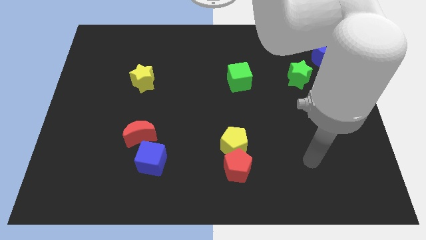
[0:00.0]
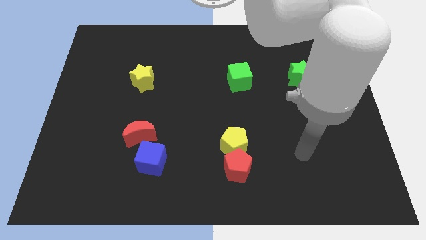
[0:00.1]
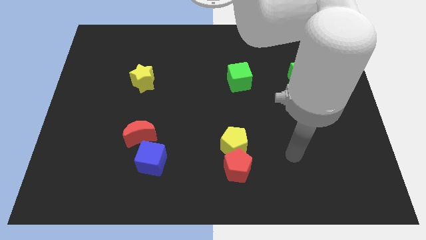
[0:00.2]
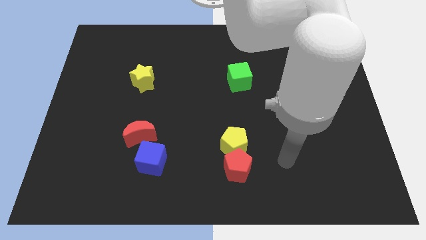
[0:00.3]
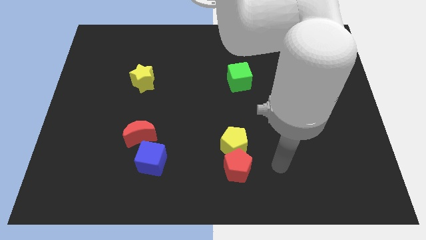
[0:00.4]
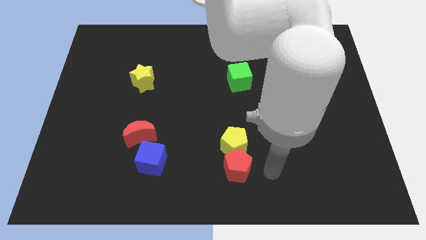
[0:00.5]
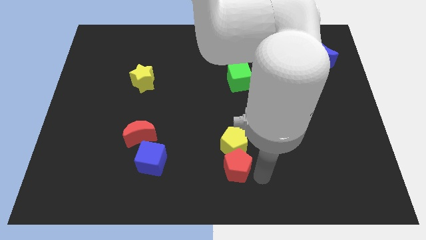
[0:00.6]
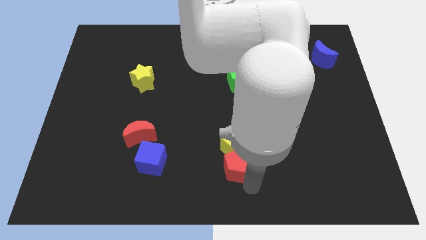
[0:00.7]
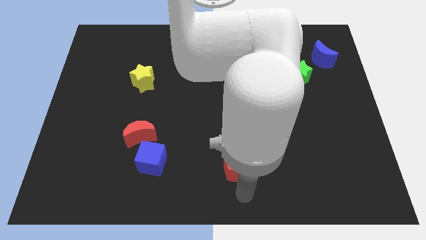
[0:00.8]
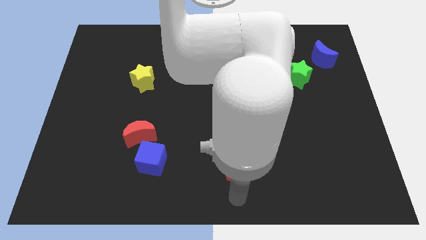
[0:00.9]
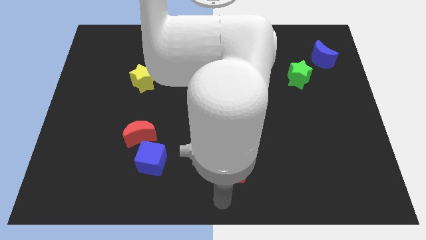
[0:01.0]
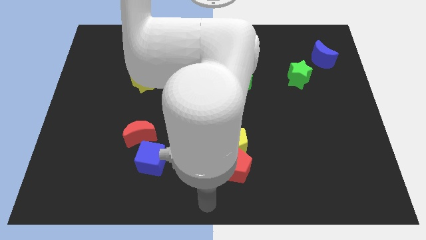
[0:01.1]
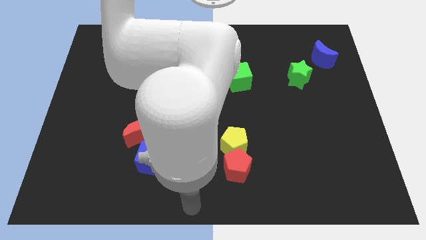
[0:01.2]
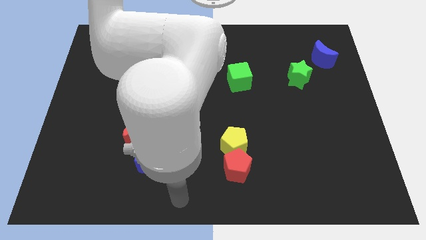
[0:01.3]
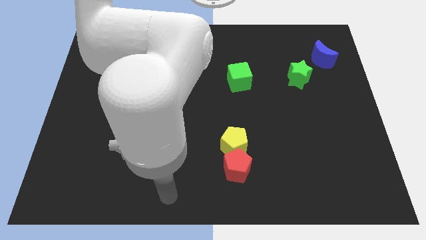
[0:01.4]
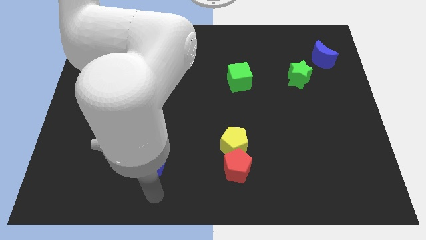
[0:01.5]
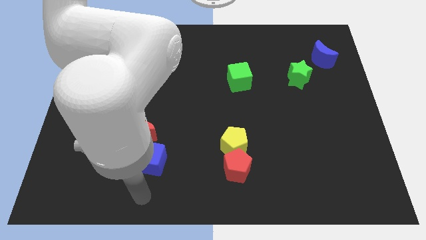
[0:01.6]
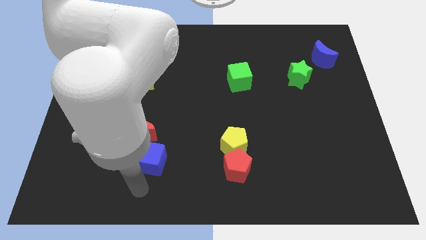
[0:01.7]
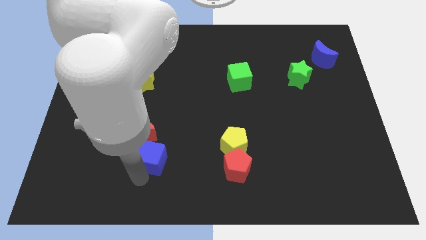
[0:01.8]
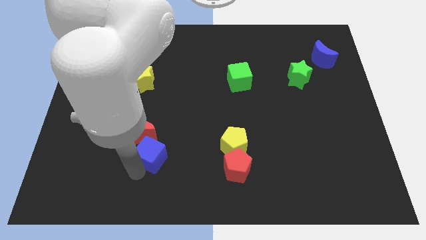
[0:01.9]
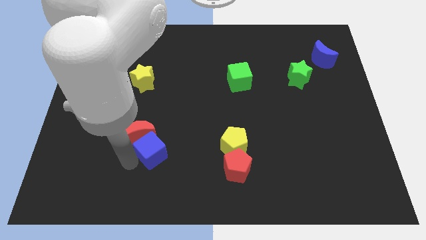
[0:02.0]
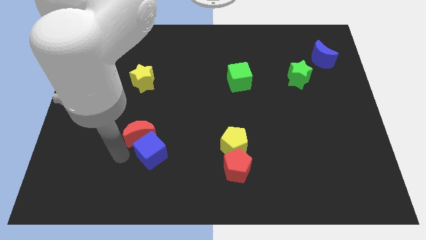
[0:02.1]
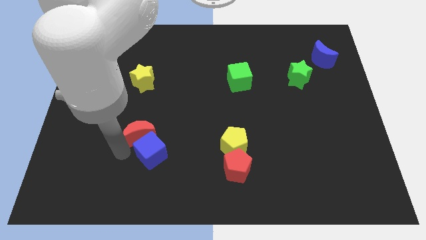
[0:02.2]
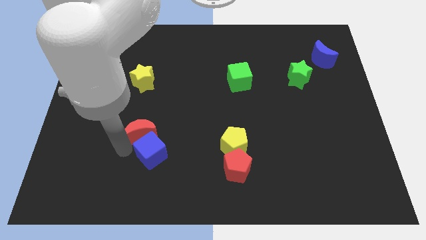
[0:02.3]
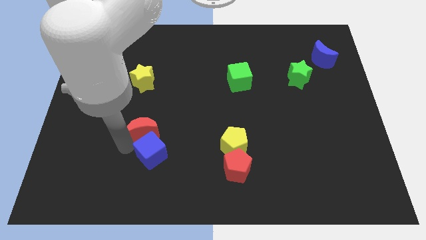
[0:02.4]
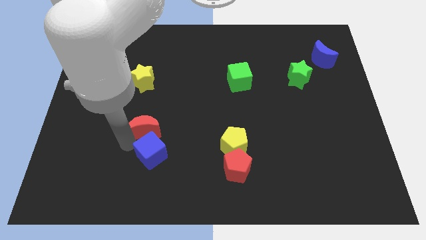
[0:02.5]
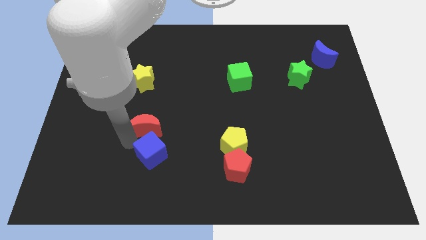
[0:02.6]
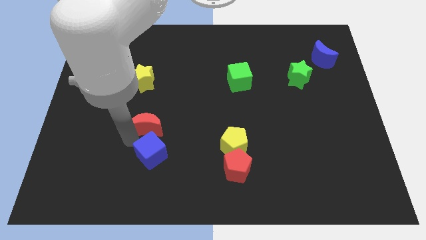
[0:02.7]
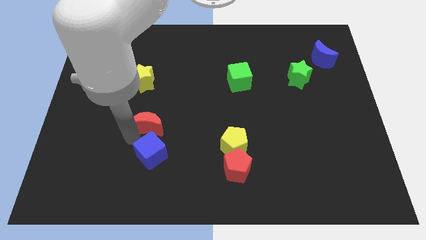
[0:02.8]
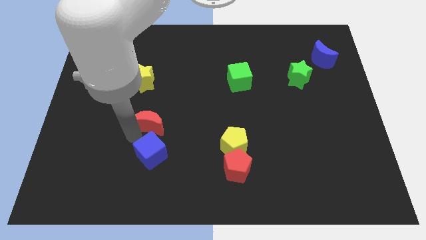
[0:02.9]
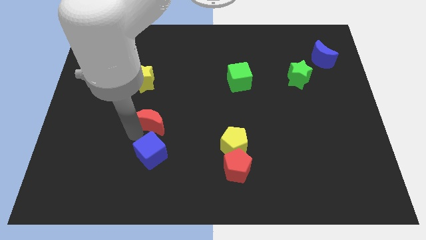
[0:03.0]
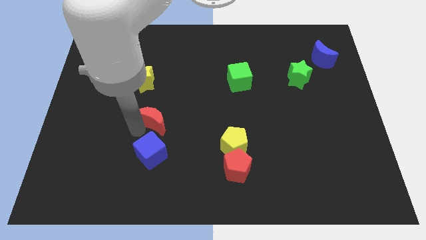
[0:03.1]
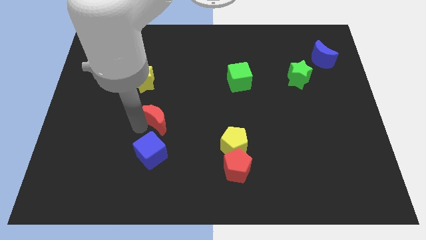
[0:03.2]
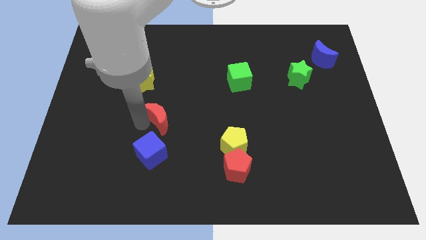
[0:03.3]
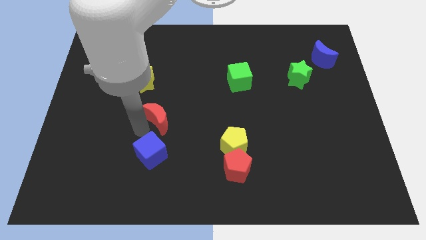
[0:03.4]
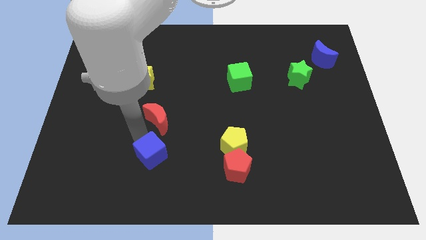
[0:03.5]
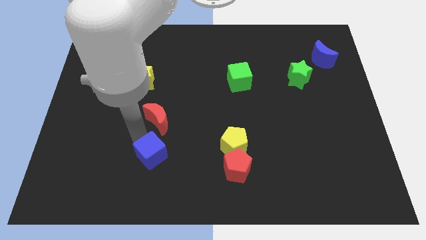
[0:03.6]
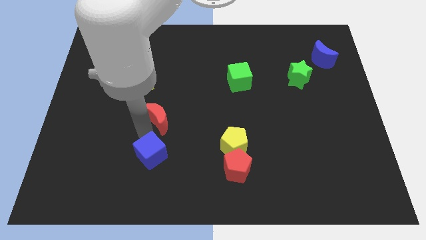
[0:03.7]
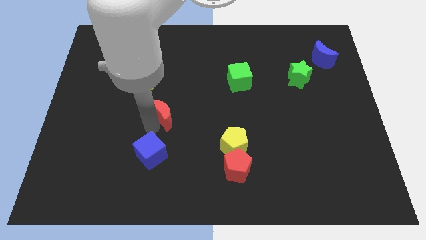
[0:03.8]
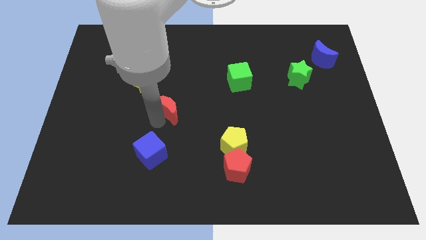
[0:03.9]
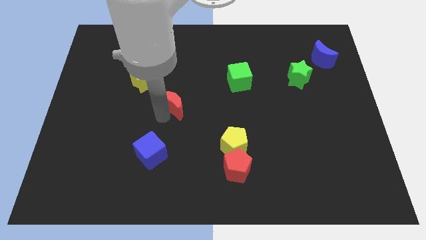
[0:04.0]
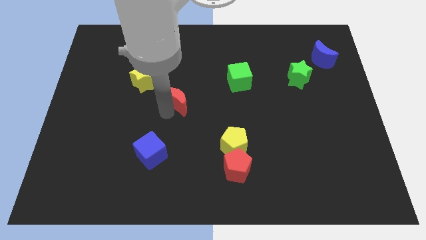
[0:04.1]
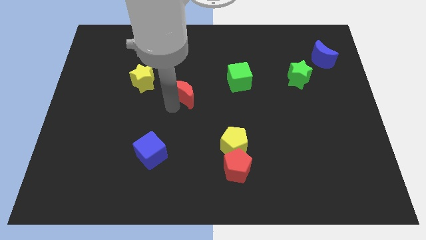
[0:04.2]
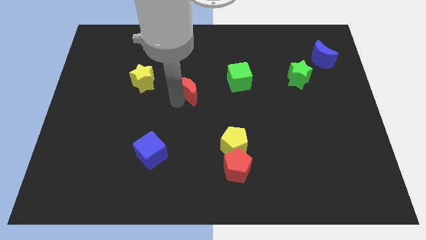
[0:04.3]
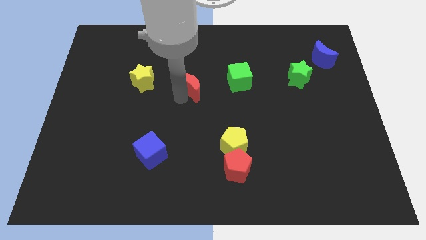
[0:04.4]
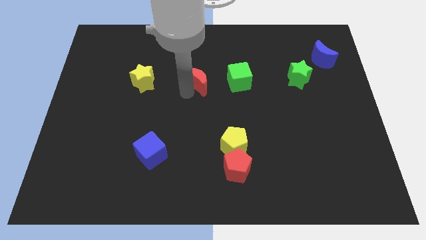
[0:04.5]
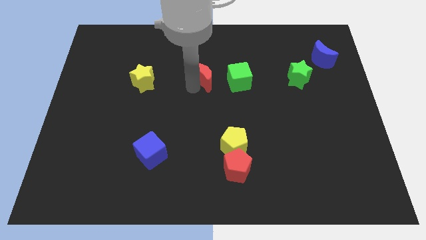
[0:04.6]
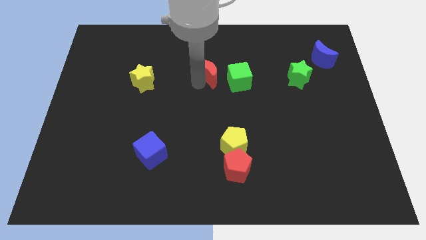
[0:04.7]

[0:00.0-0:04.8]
put the red moon to the top left side of the green cube

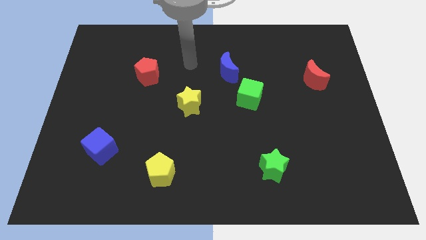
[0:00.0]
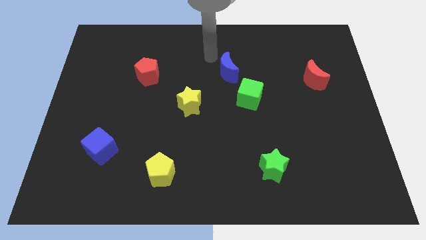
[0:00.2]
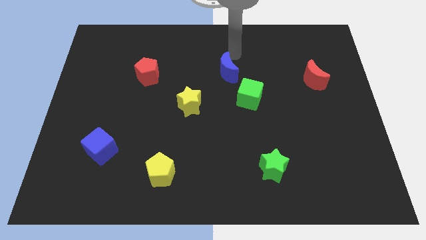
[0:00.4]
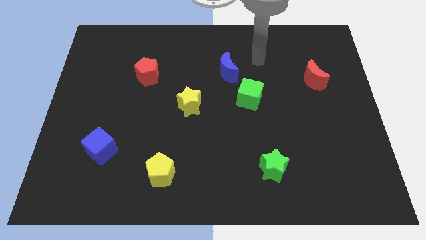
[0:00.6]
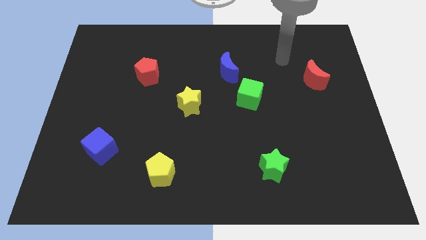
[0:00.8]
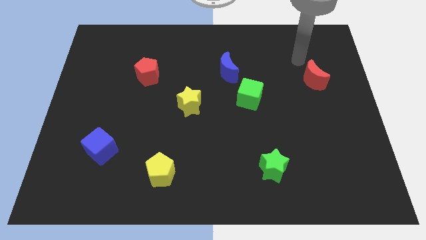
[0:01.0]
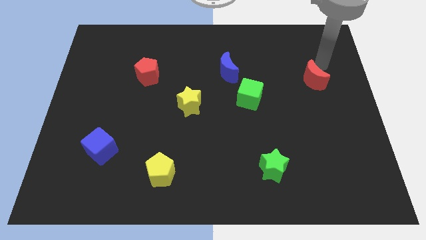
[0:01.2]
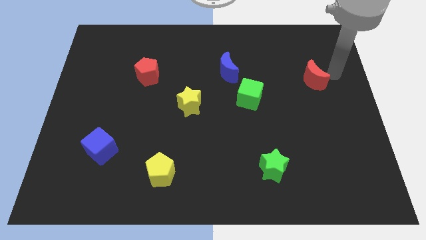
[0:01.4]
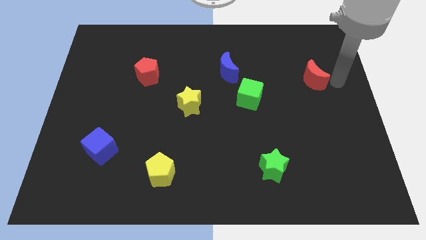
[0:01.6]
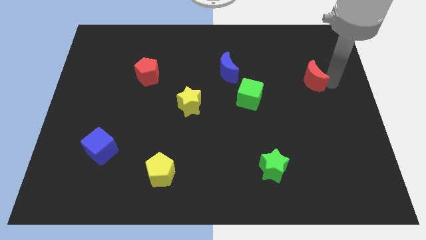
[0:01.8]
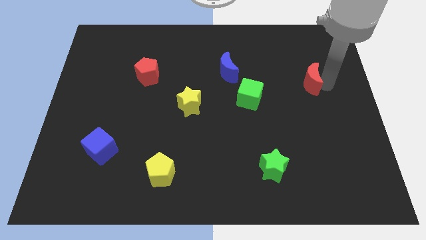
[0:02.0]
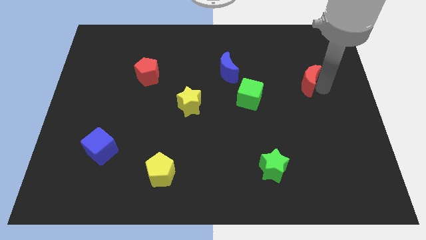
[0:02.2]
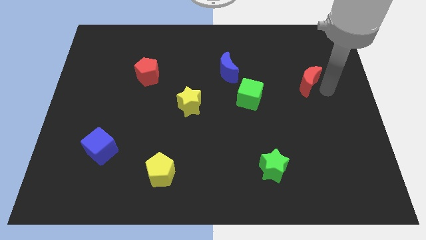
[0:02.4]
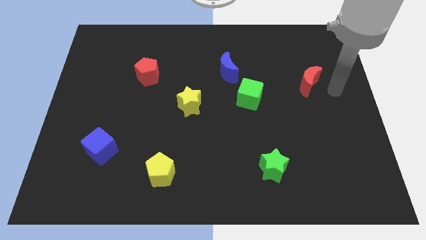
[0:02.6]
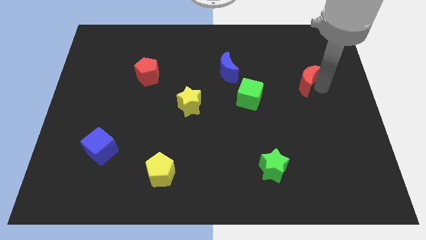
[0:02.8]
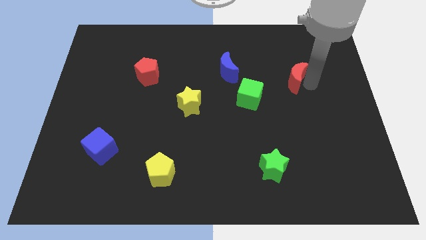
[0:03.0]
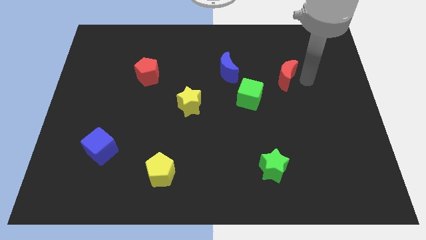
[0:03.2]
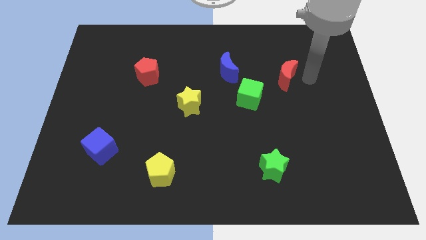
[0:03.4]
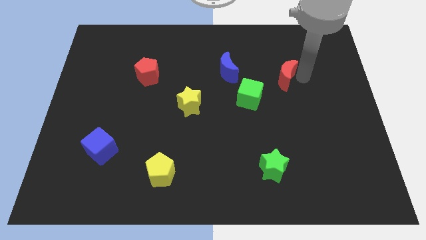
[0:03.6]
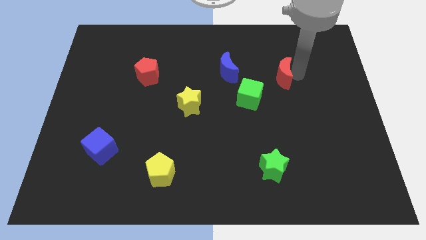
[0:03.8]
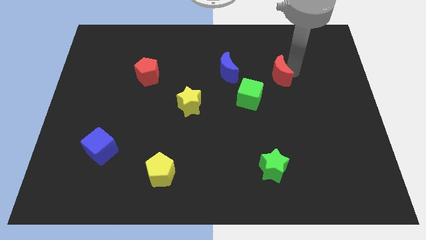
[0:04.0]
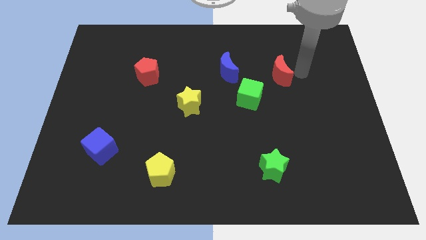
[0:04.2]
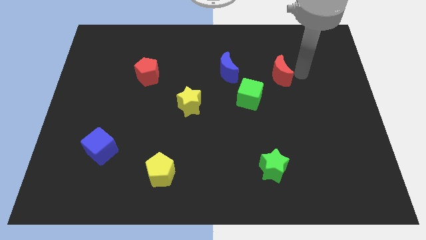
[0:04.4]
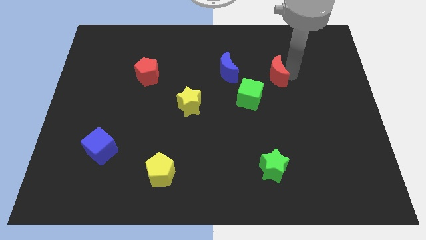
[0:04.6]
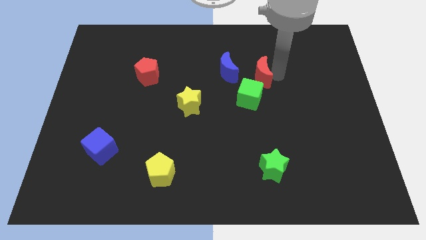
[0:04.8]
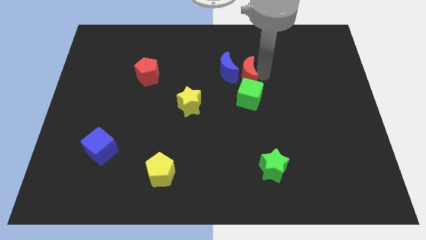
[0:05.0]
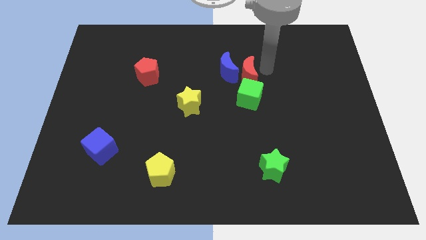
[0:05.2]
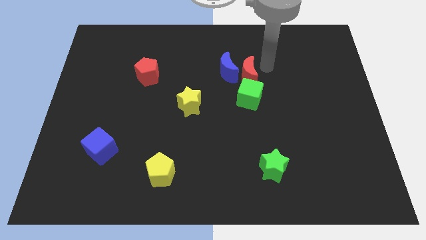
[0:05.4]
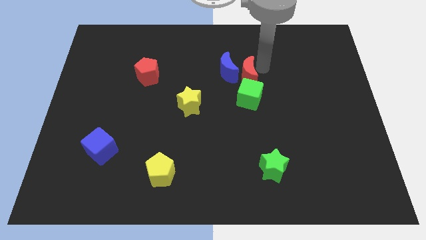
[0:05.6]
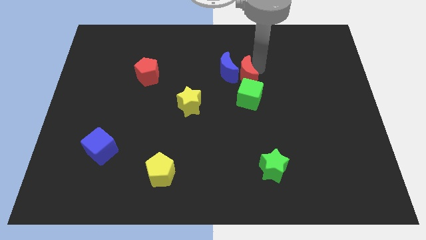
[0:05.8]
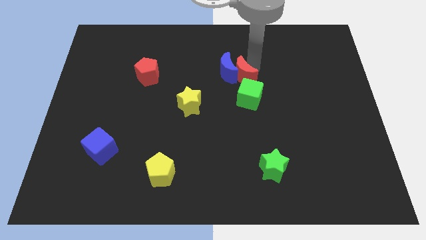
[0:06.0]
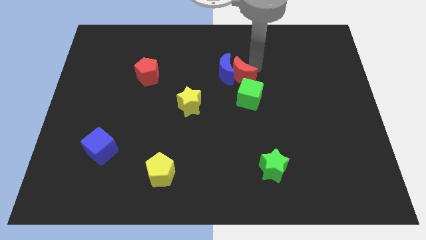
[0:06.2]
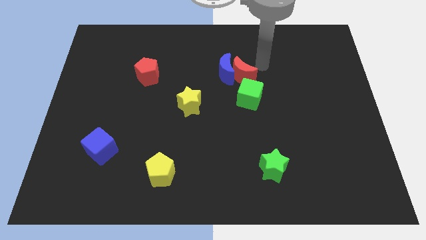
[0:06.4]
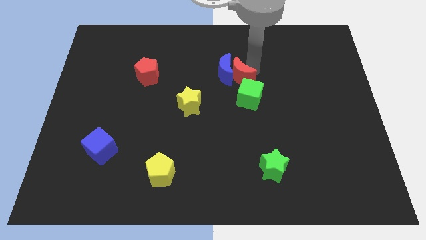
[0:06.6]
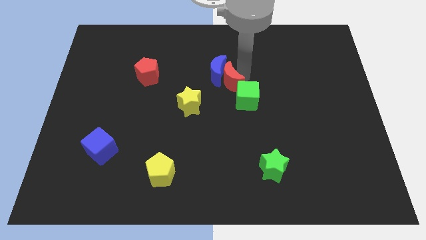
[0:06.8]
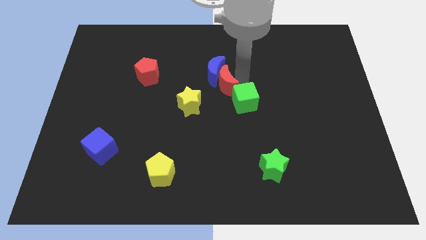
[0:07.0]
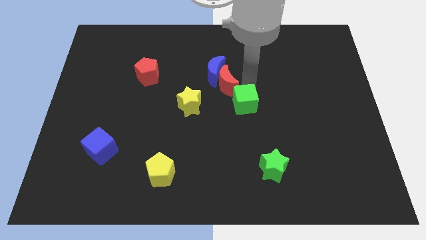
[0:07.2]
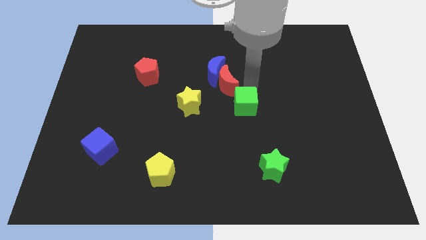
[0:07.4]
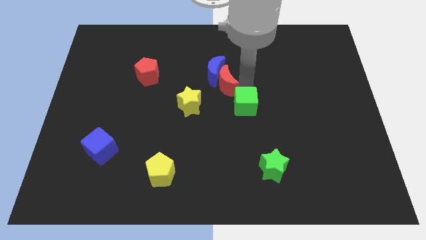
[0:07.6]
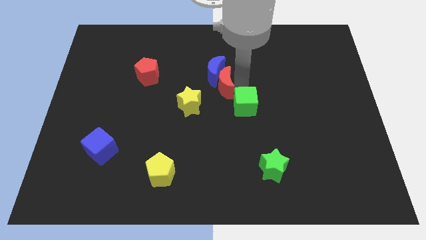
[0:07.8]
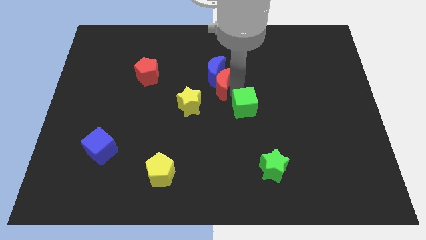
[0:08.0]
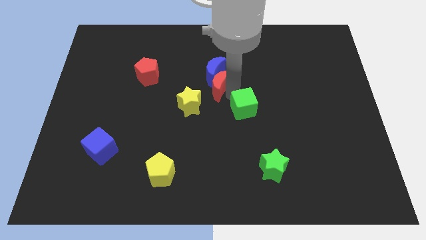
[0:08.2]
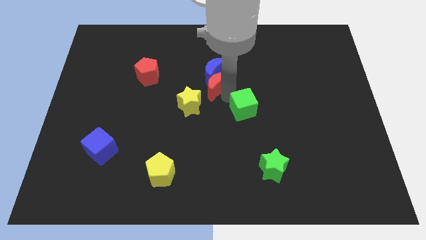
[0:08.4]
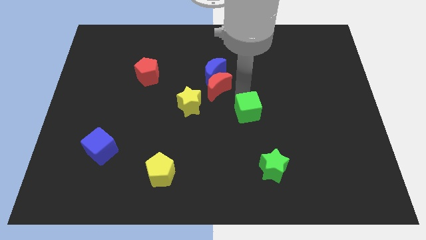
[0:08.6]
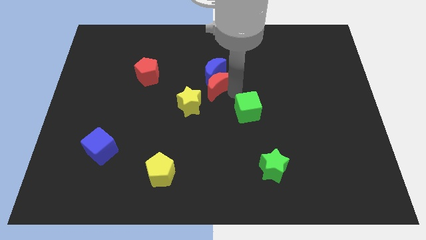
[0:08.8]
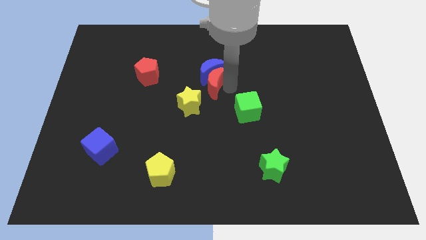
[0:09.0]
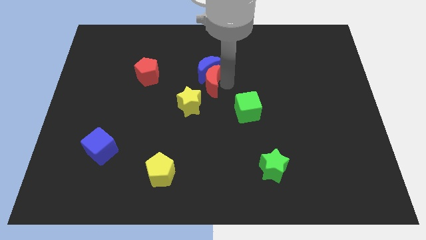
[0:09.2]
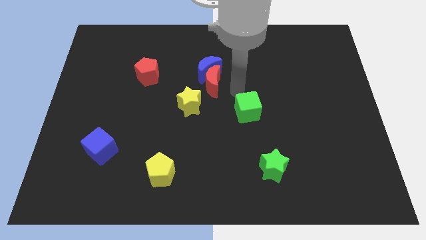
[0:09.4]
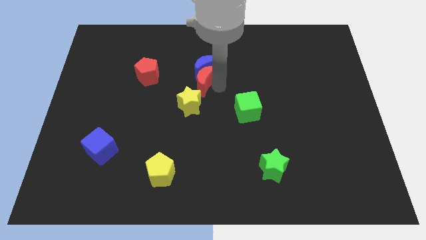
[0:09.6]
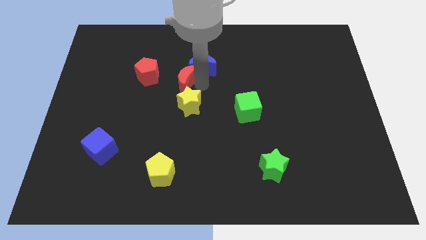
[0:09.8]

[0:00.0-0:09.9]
push the red moon to the left side of the blue moon
